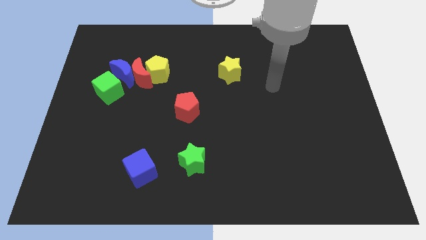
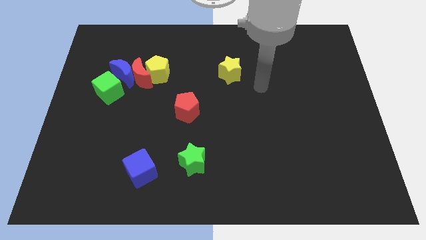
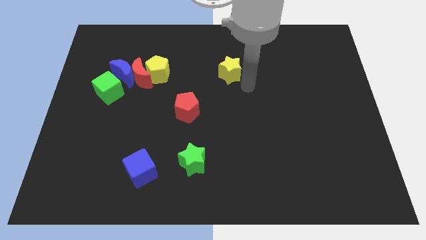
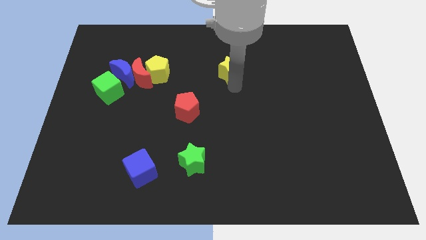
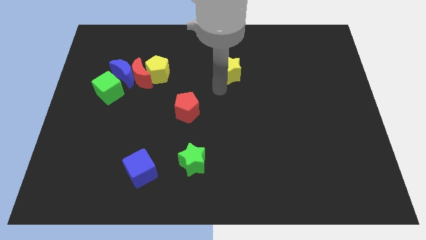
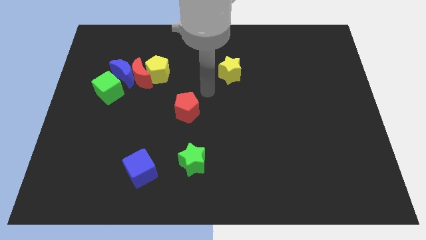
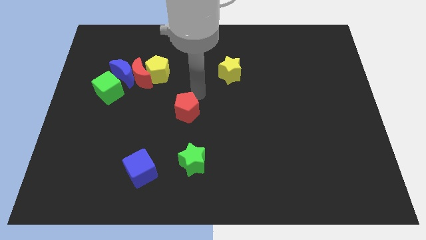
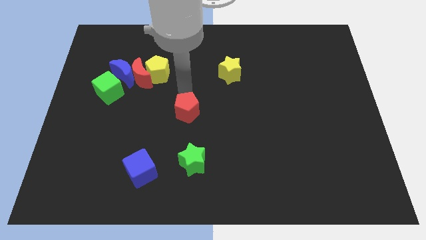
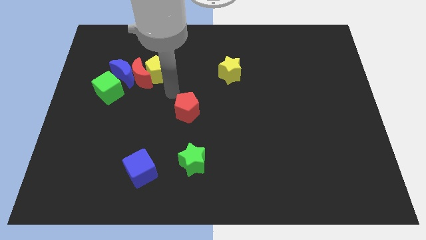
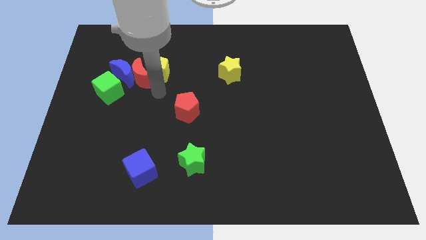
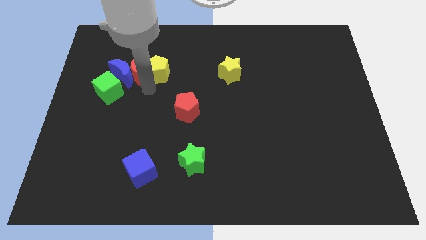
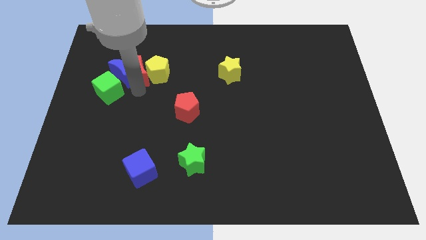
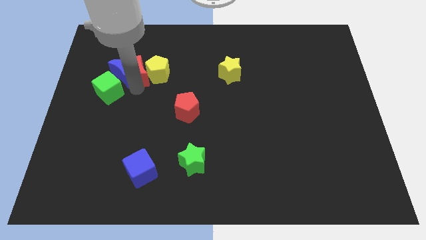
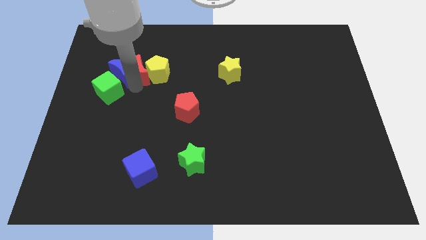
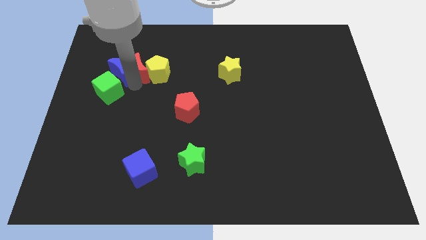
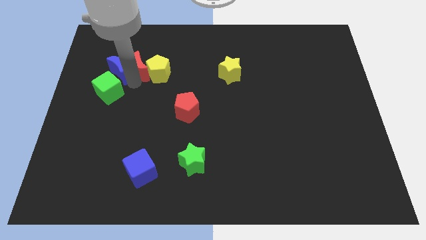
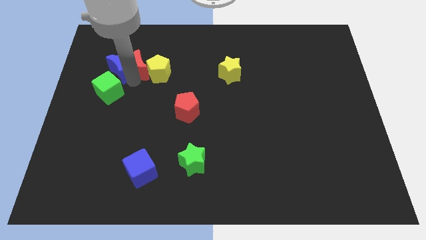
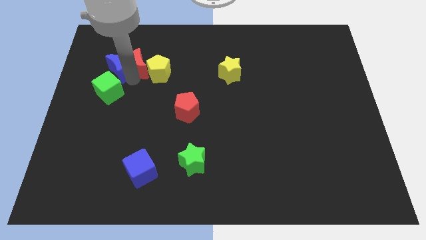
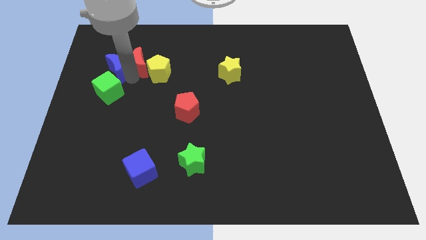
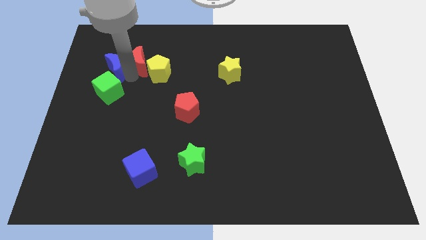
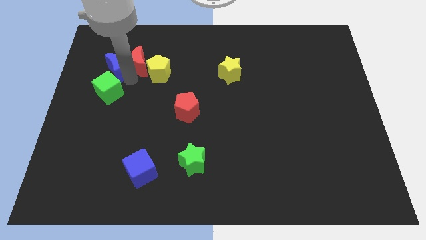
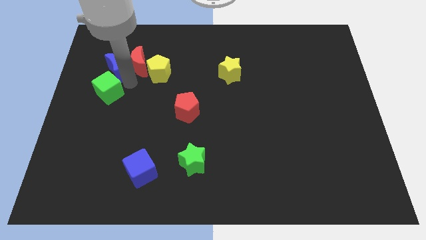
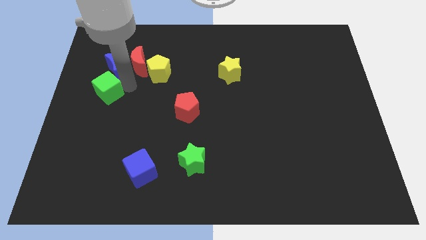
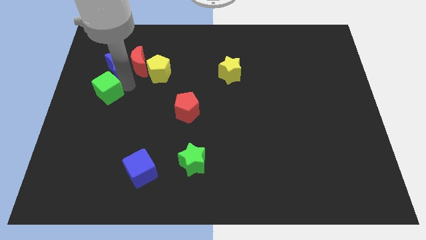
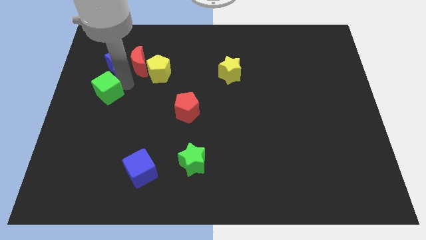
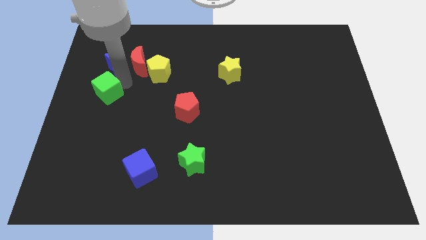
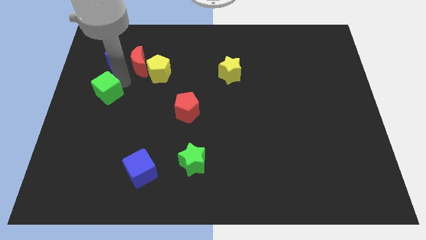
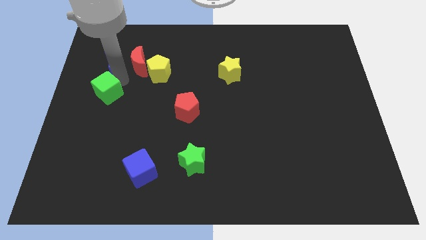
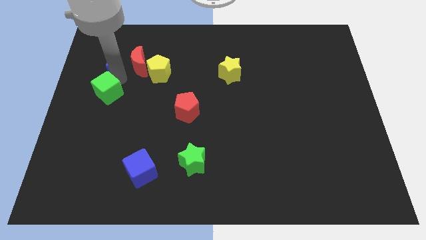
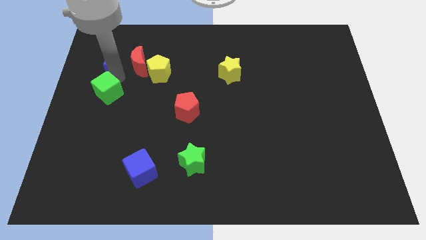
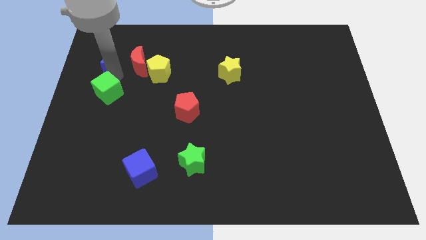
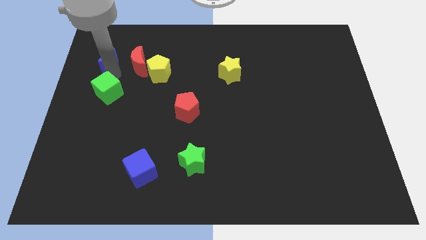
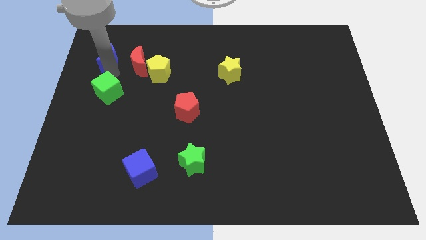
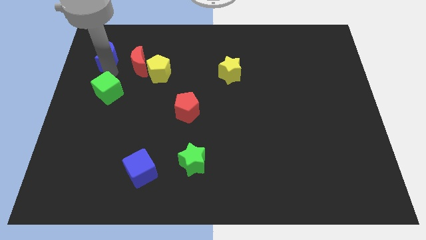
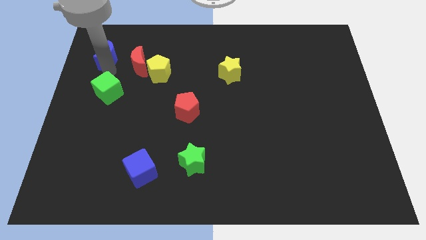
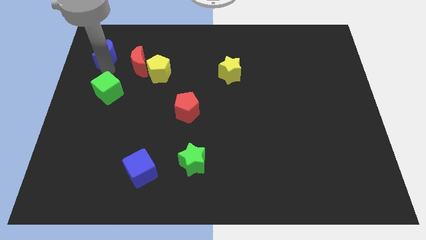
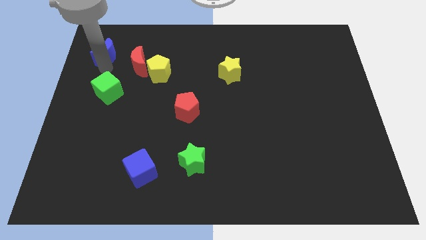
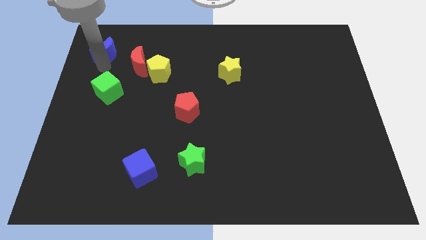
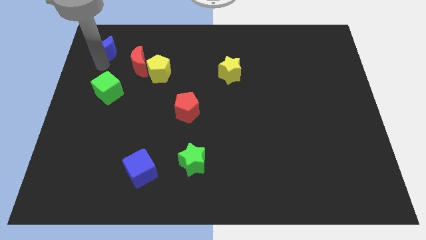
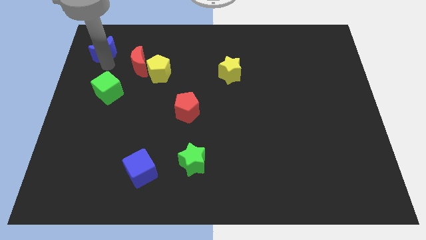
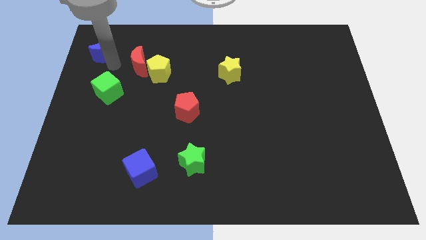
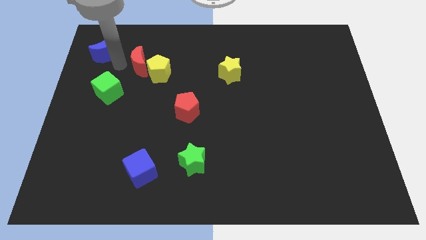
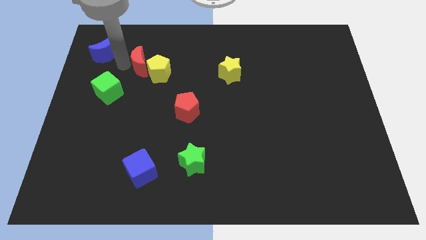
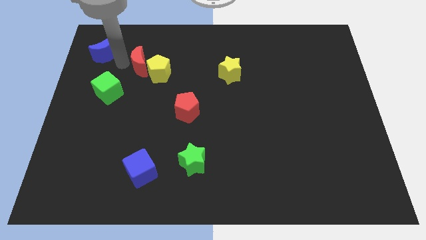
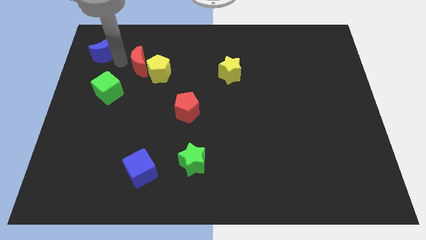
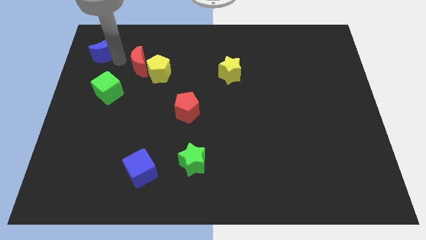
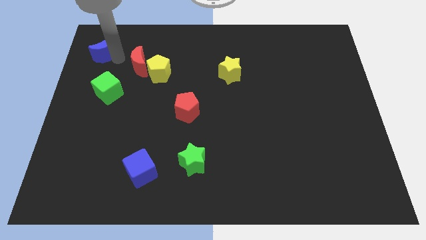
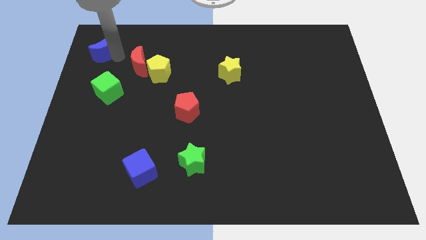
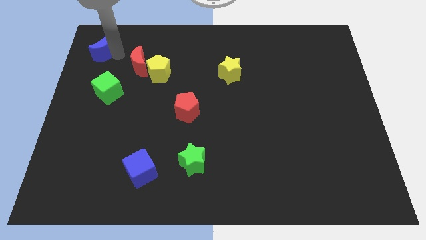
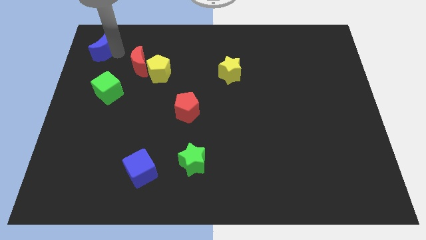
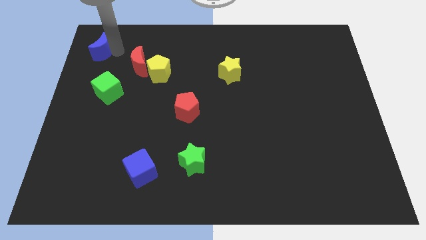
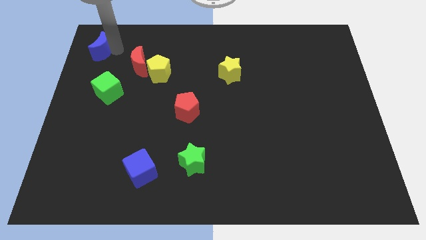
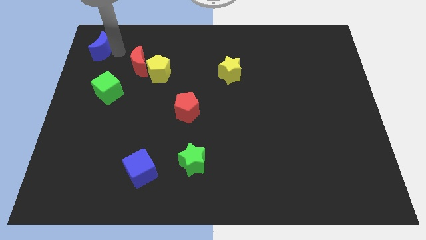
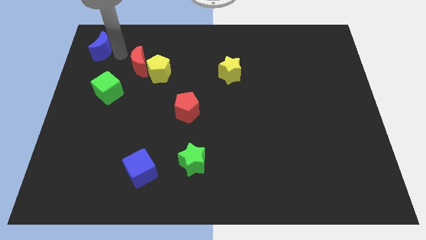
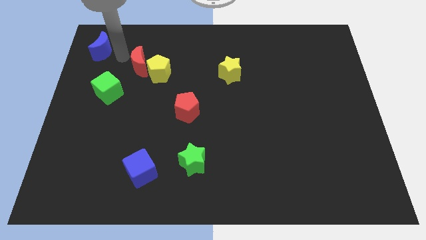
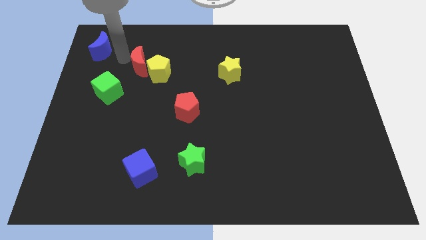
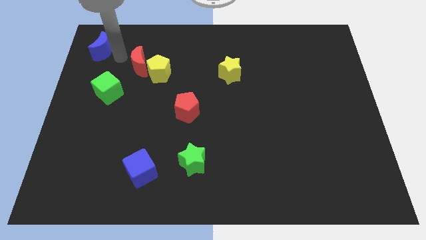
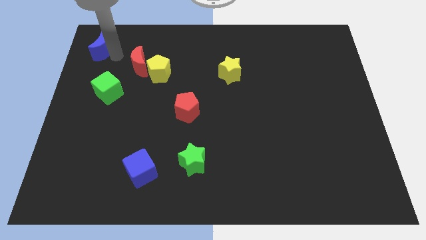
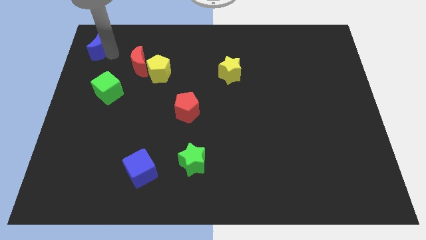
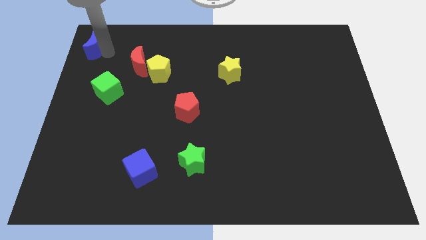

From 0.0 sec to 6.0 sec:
put the blue moon to the top left
